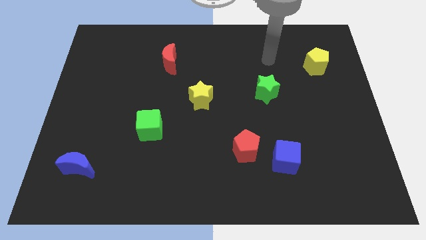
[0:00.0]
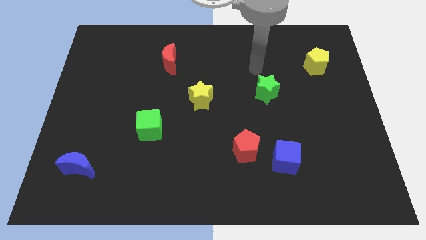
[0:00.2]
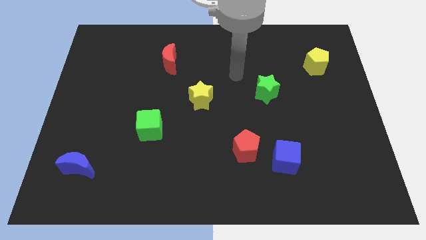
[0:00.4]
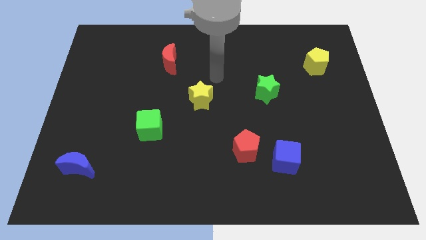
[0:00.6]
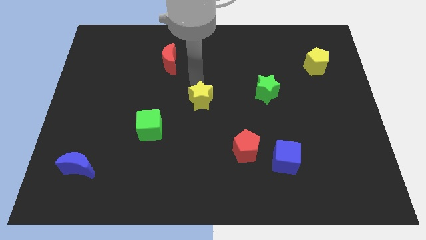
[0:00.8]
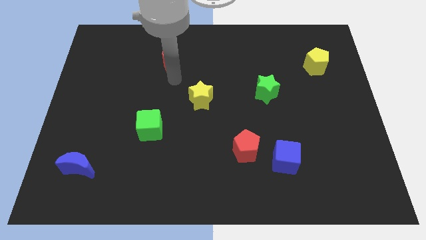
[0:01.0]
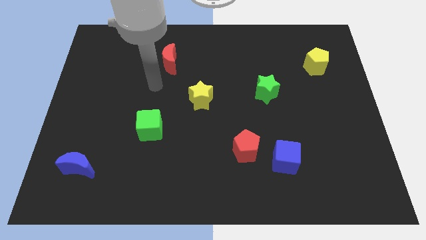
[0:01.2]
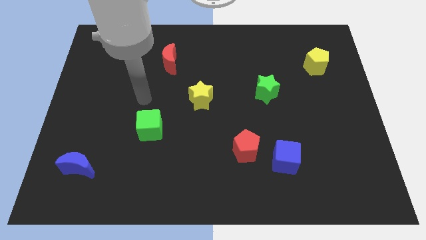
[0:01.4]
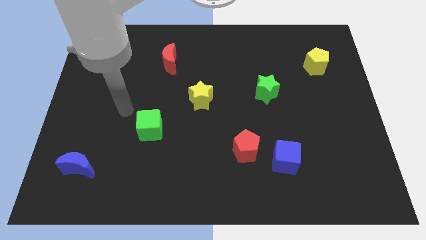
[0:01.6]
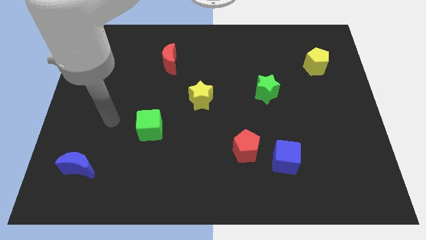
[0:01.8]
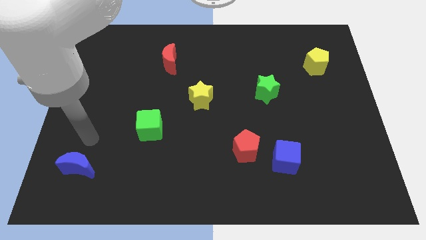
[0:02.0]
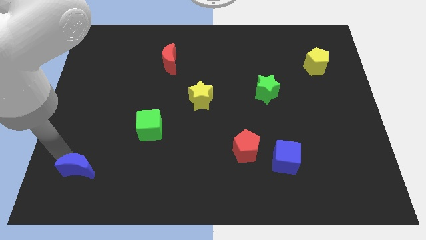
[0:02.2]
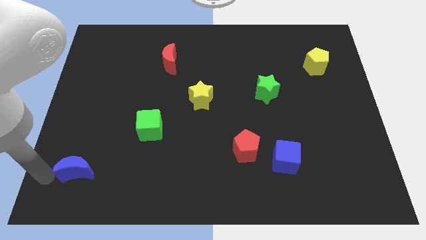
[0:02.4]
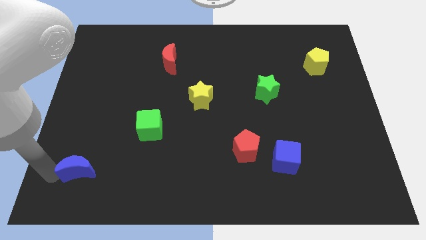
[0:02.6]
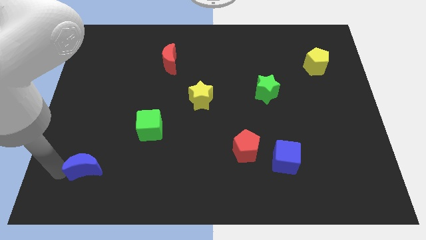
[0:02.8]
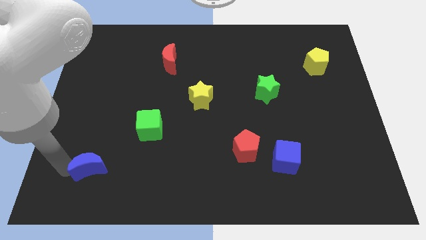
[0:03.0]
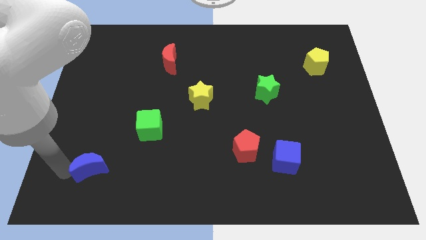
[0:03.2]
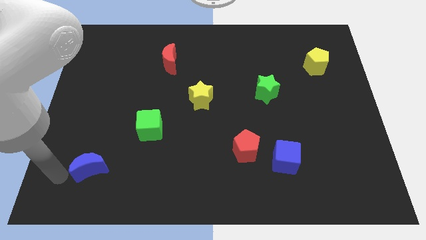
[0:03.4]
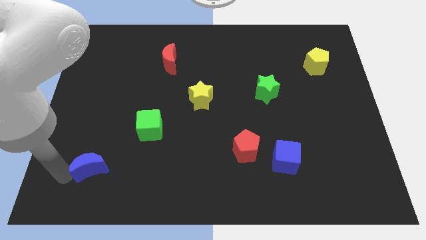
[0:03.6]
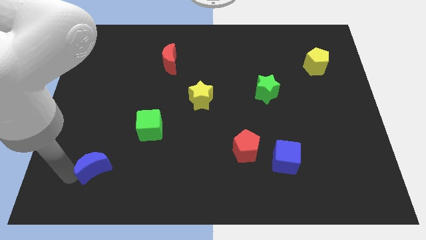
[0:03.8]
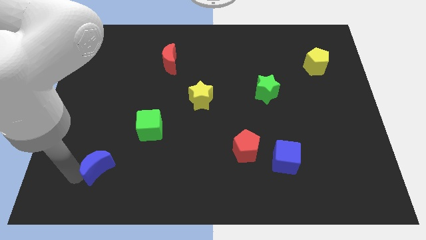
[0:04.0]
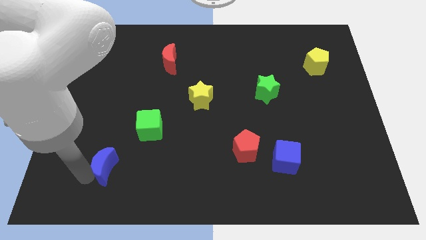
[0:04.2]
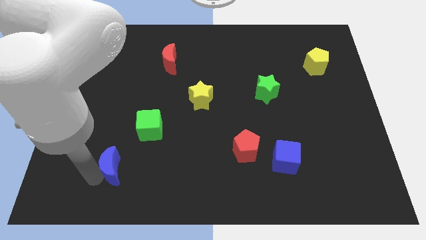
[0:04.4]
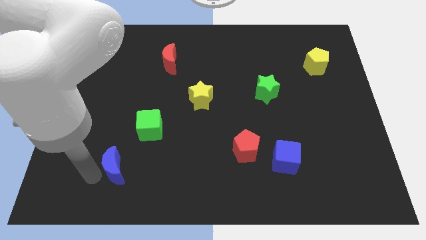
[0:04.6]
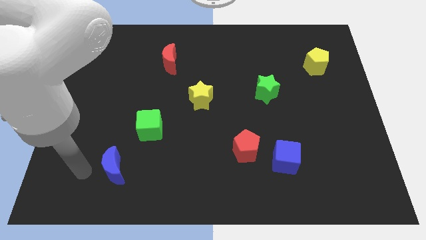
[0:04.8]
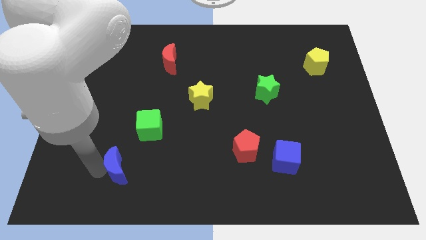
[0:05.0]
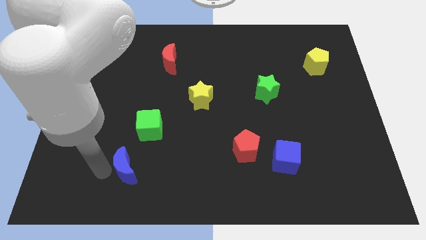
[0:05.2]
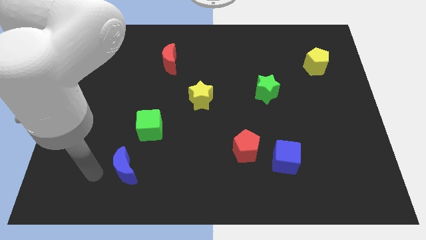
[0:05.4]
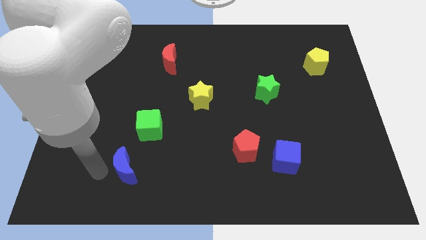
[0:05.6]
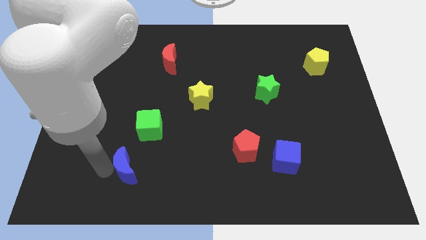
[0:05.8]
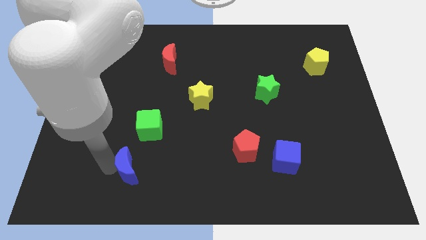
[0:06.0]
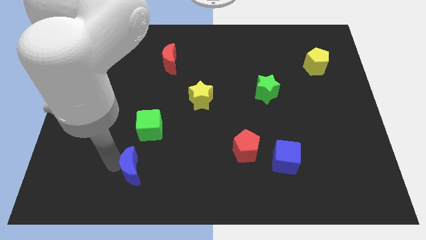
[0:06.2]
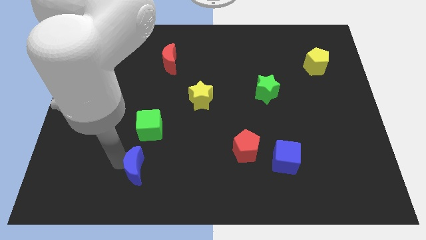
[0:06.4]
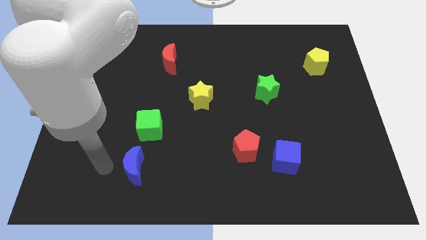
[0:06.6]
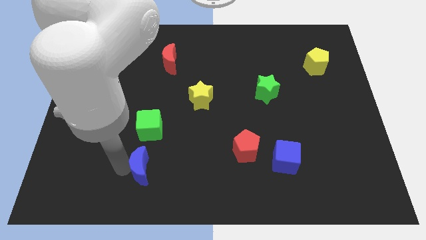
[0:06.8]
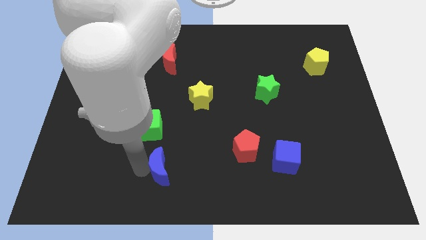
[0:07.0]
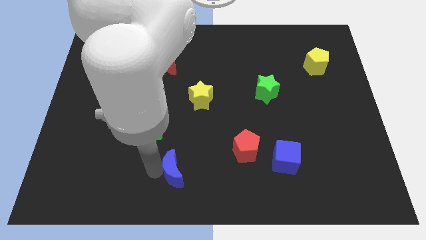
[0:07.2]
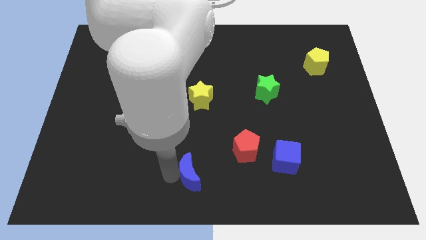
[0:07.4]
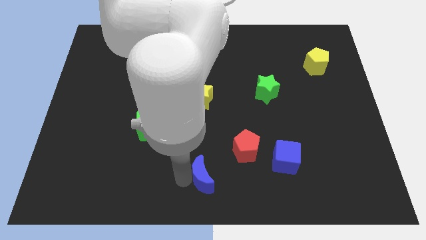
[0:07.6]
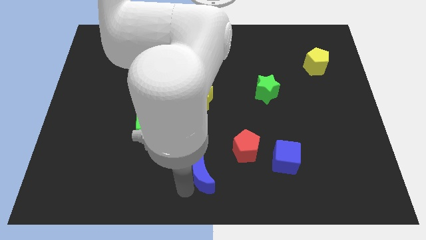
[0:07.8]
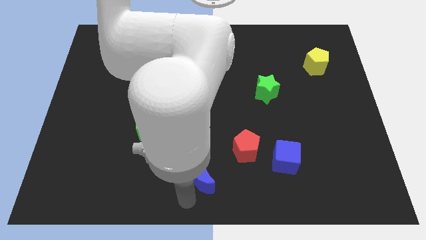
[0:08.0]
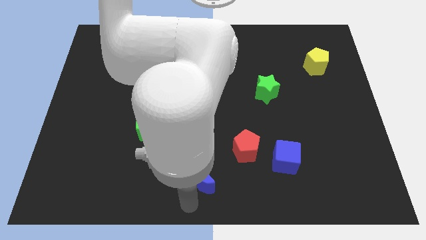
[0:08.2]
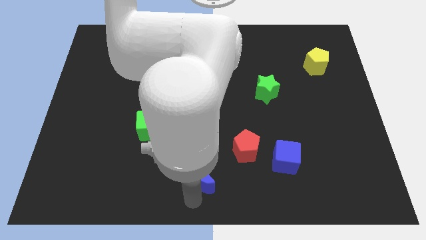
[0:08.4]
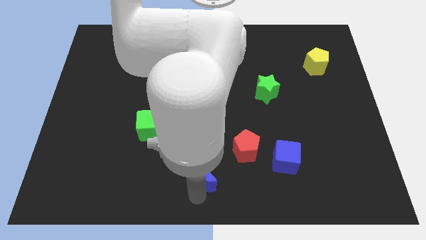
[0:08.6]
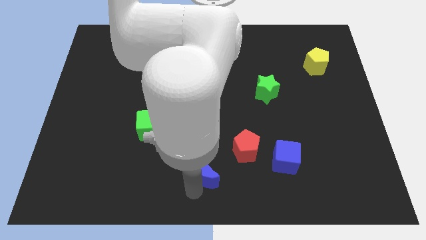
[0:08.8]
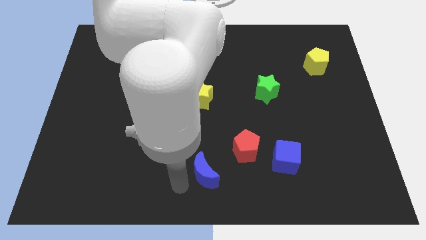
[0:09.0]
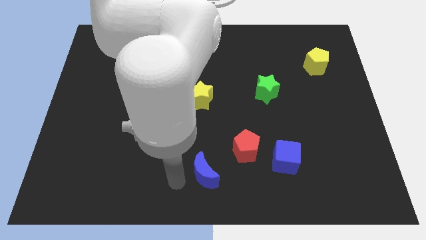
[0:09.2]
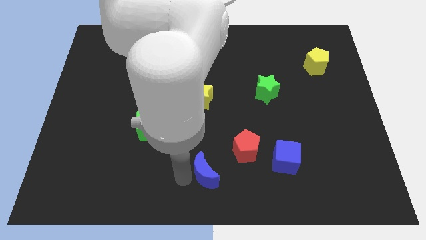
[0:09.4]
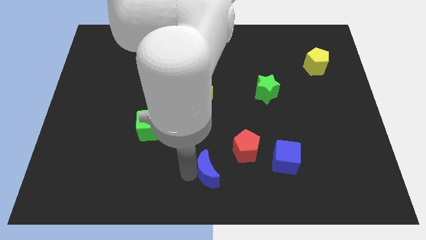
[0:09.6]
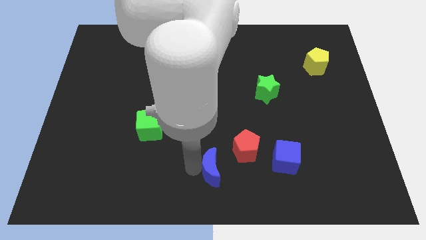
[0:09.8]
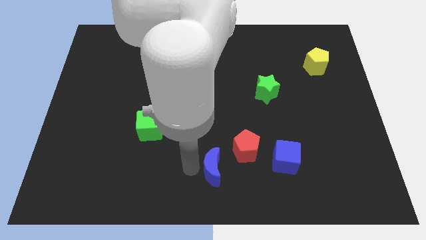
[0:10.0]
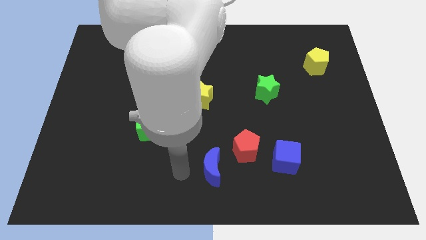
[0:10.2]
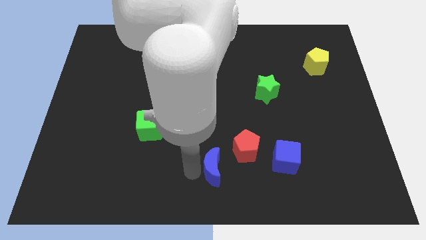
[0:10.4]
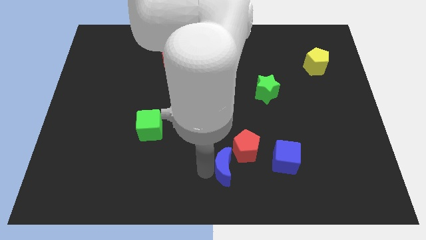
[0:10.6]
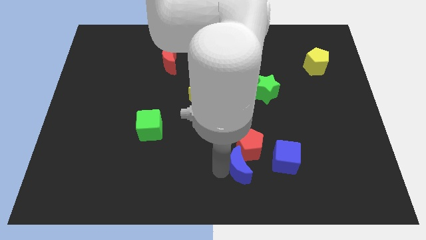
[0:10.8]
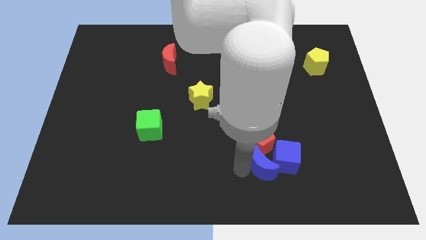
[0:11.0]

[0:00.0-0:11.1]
slide the blue moon close to the blue cube

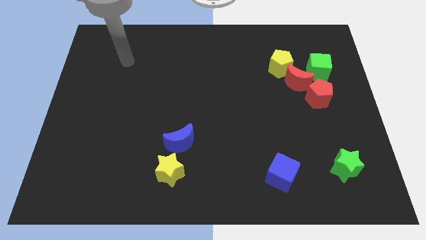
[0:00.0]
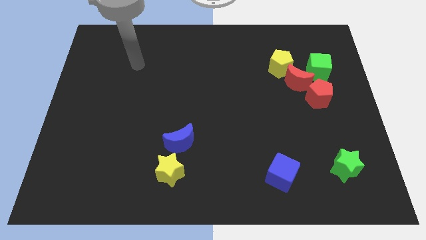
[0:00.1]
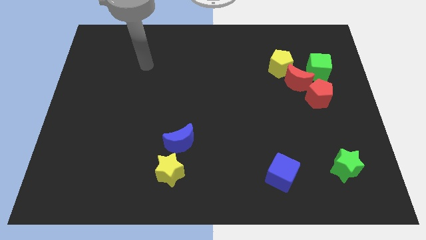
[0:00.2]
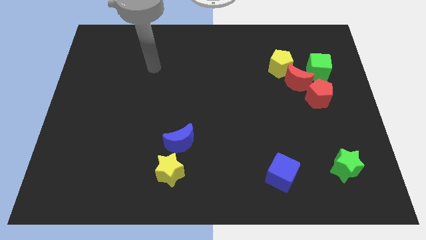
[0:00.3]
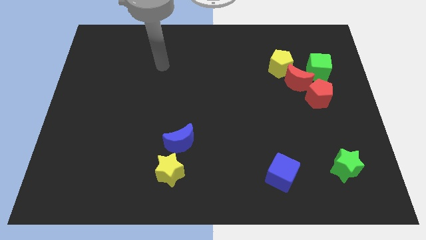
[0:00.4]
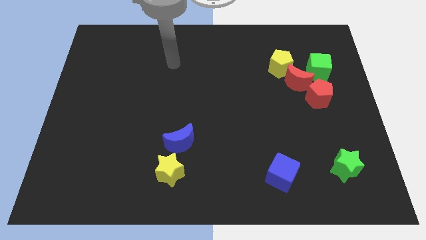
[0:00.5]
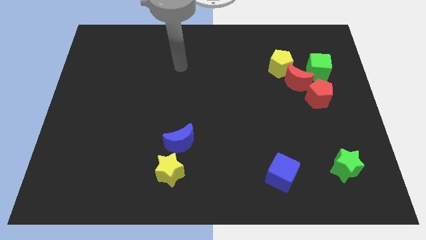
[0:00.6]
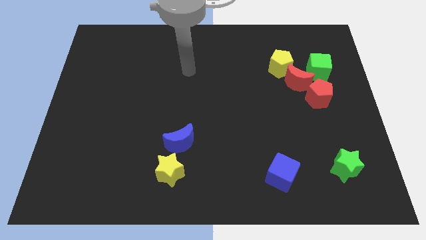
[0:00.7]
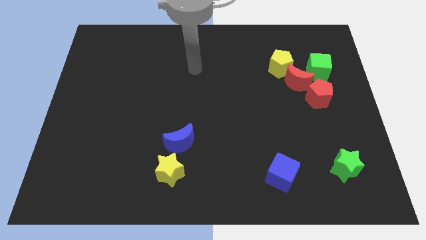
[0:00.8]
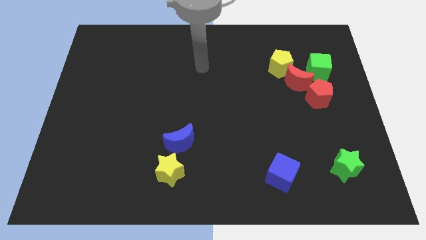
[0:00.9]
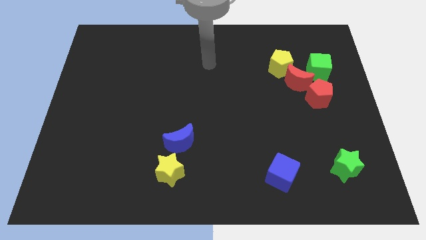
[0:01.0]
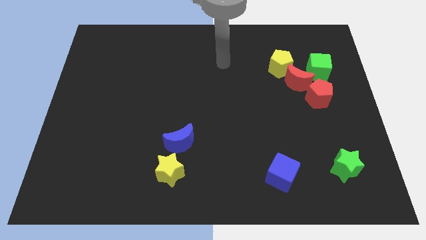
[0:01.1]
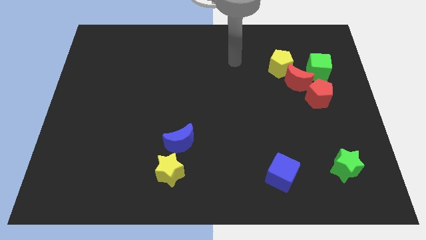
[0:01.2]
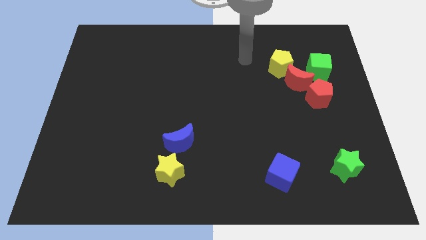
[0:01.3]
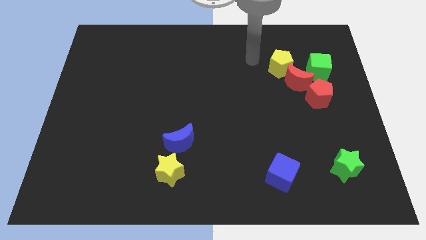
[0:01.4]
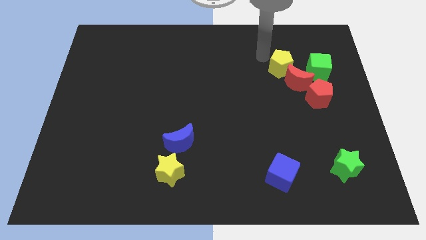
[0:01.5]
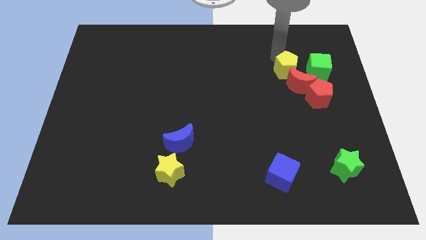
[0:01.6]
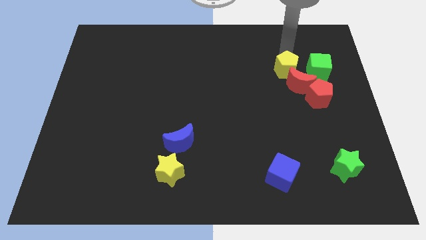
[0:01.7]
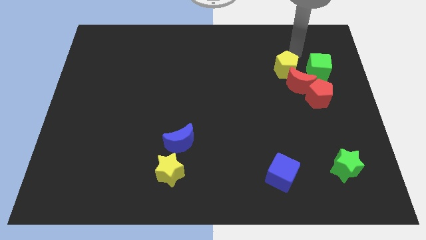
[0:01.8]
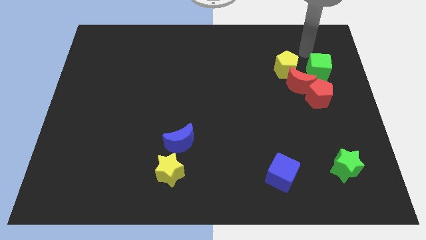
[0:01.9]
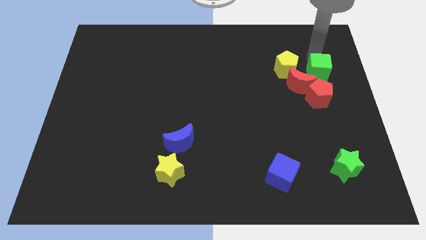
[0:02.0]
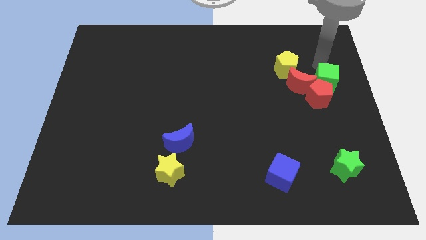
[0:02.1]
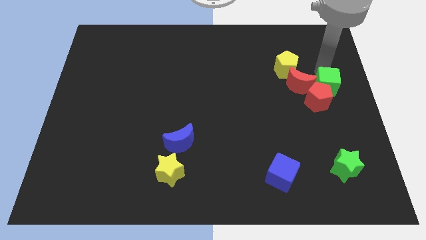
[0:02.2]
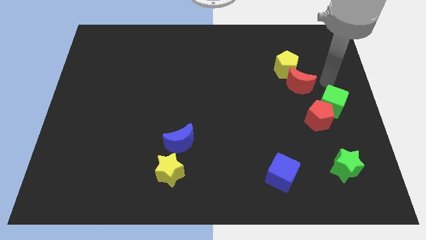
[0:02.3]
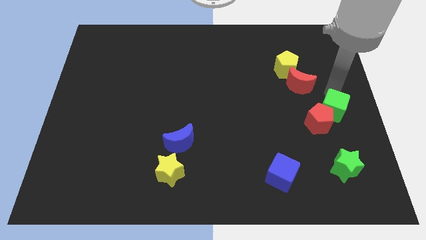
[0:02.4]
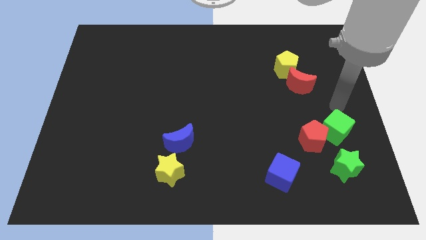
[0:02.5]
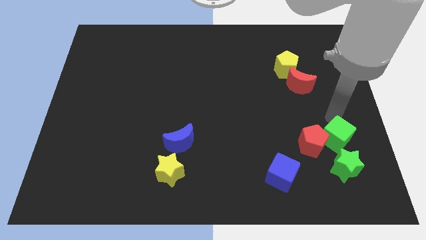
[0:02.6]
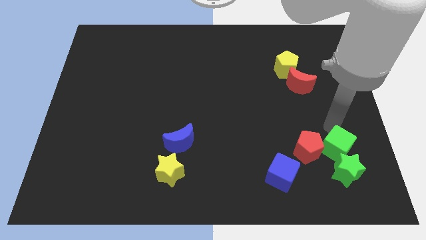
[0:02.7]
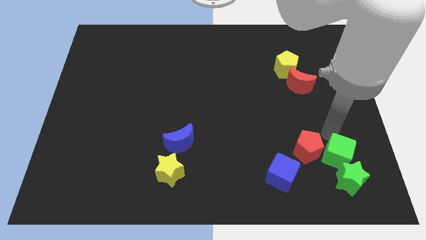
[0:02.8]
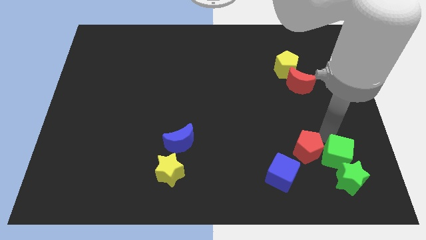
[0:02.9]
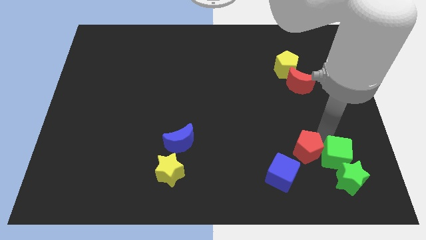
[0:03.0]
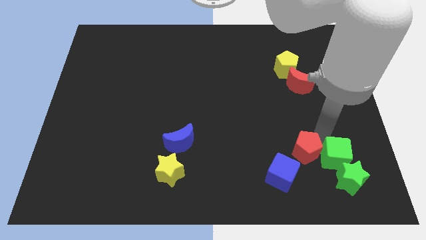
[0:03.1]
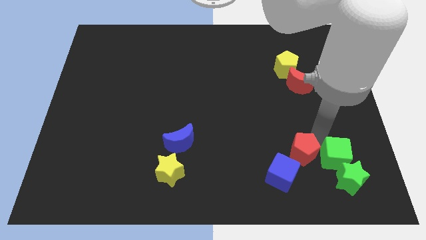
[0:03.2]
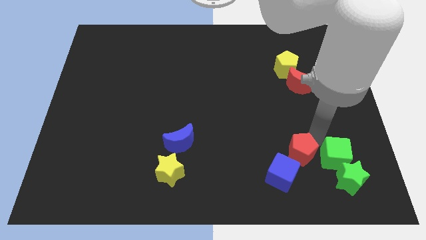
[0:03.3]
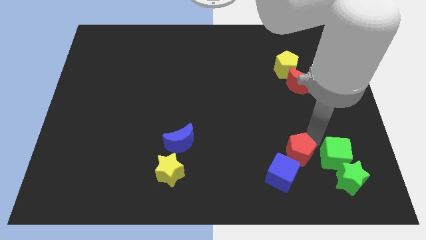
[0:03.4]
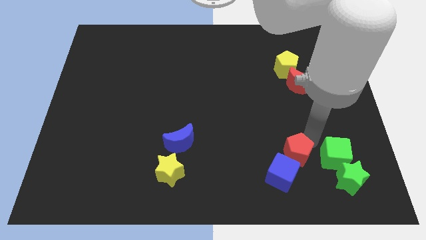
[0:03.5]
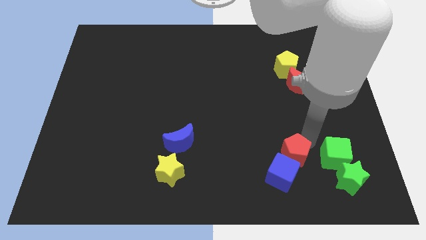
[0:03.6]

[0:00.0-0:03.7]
put the red pentagon close to the blue cube
